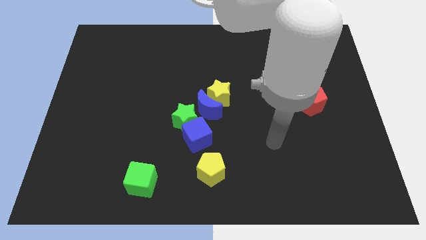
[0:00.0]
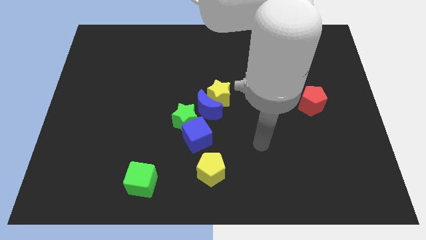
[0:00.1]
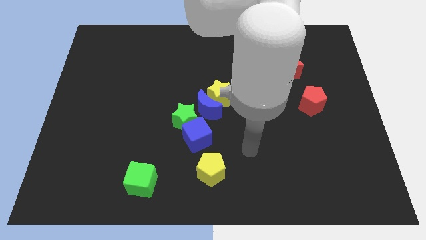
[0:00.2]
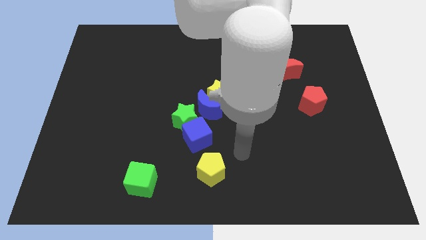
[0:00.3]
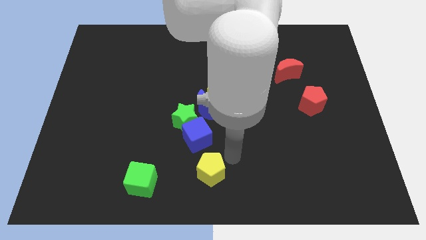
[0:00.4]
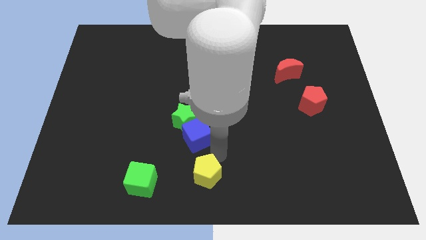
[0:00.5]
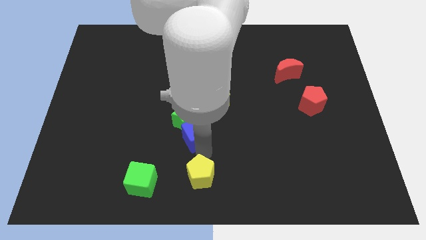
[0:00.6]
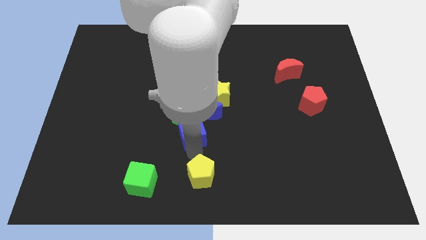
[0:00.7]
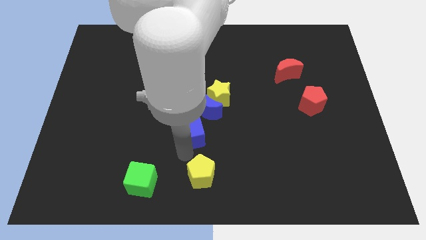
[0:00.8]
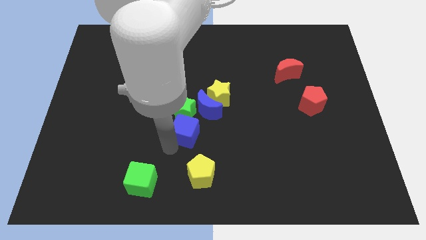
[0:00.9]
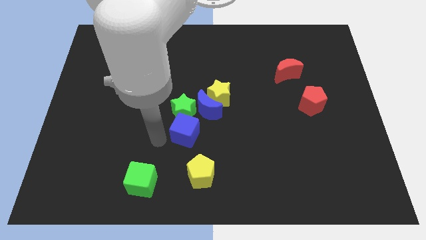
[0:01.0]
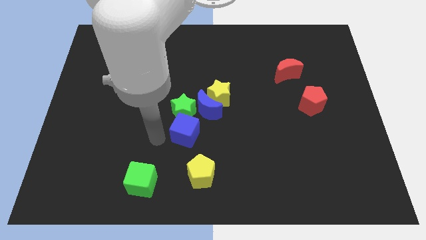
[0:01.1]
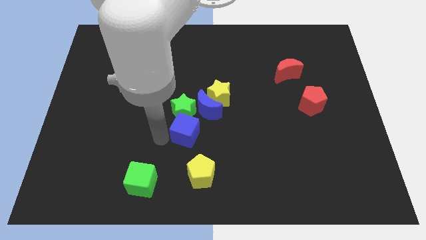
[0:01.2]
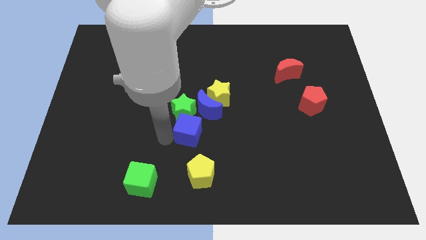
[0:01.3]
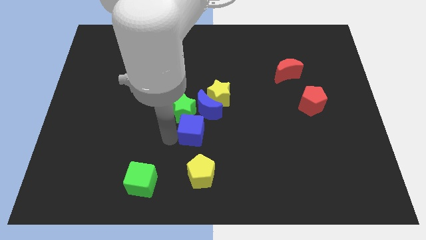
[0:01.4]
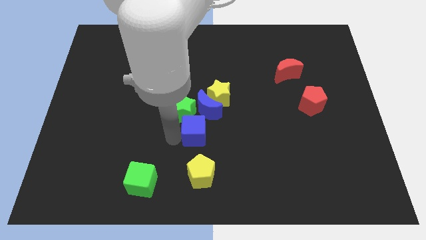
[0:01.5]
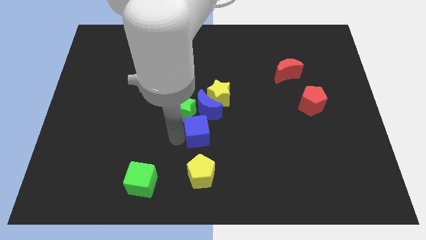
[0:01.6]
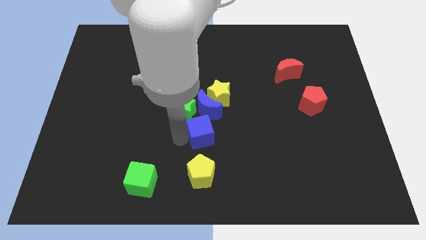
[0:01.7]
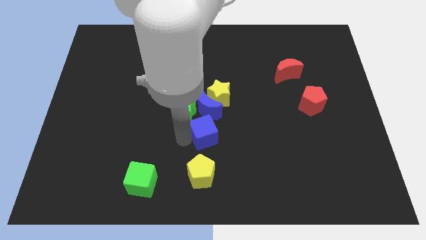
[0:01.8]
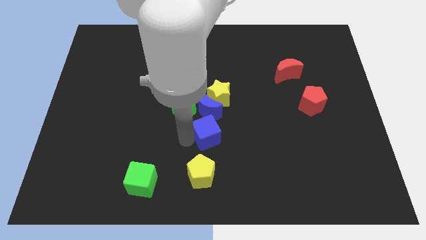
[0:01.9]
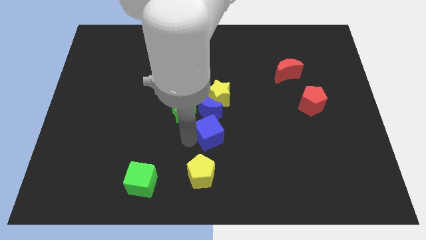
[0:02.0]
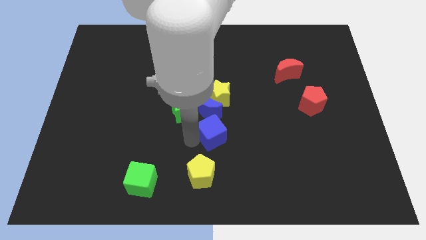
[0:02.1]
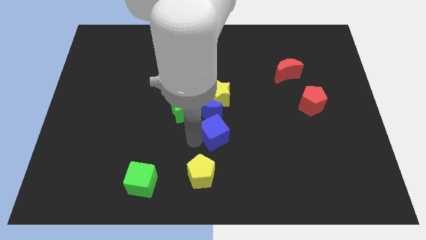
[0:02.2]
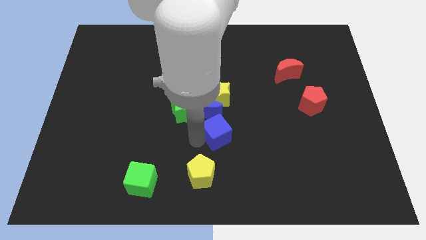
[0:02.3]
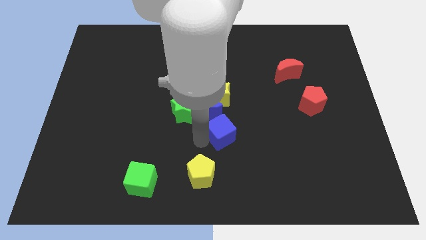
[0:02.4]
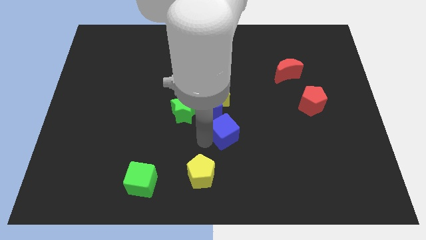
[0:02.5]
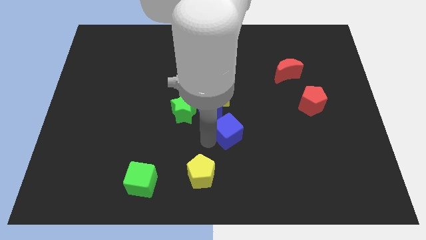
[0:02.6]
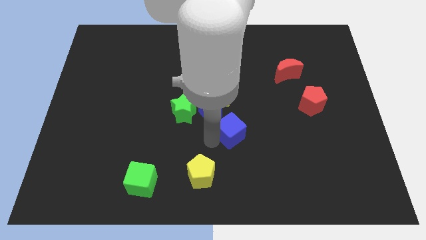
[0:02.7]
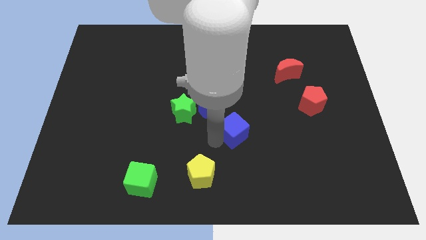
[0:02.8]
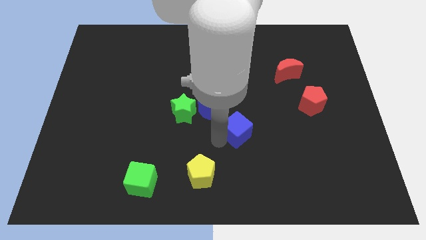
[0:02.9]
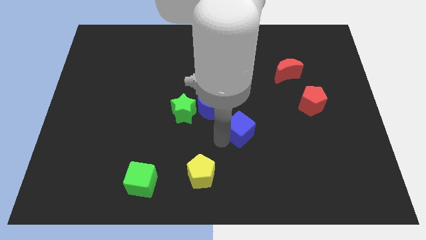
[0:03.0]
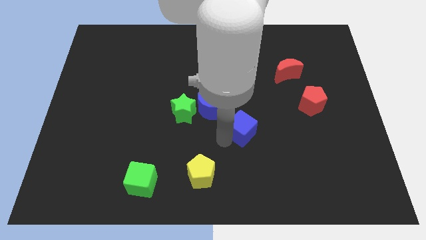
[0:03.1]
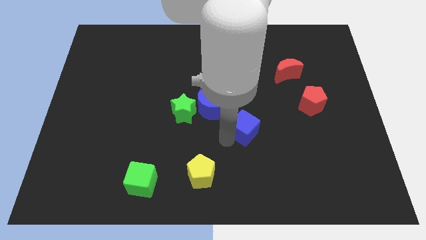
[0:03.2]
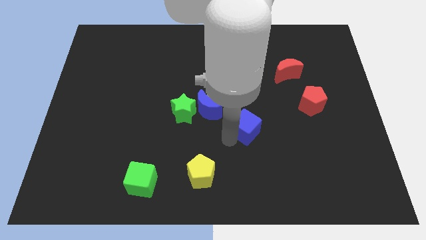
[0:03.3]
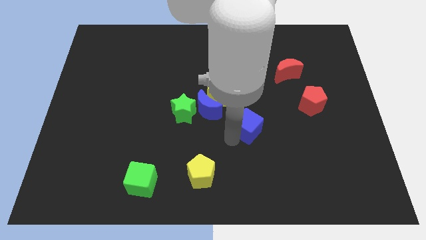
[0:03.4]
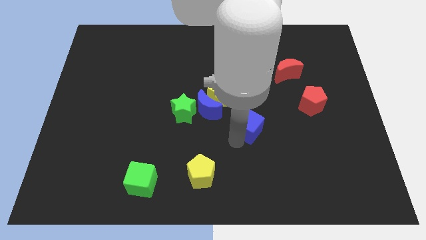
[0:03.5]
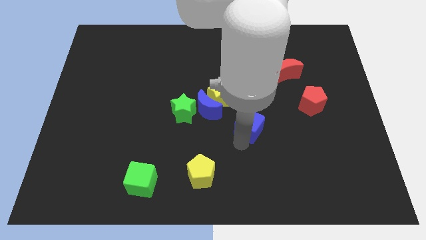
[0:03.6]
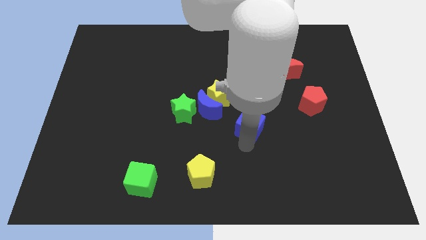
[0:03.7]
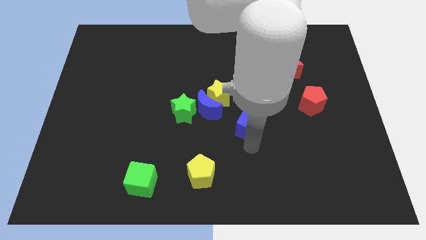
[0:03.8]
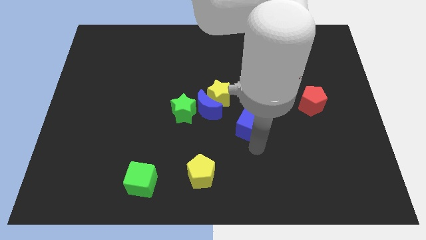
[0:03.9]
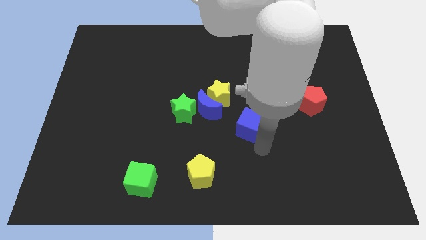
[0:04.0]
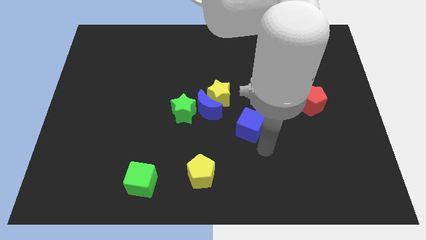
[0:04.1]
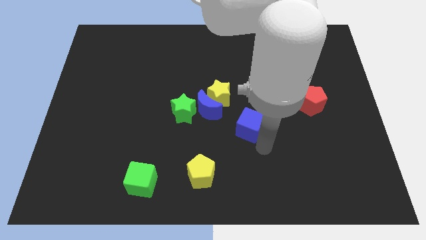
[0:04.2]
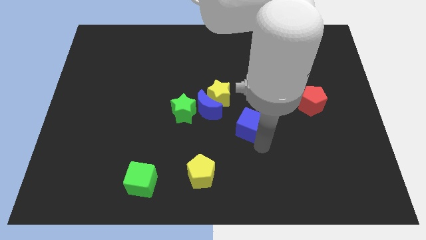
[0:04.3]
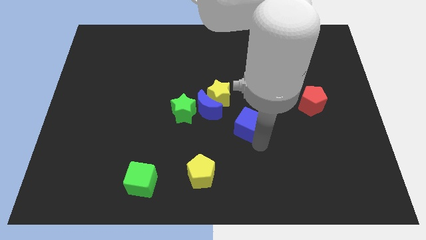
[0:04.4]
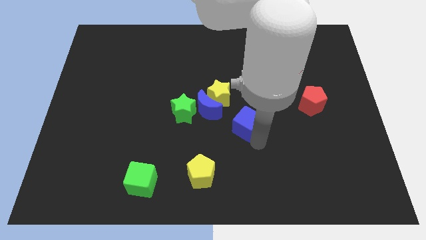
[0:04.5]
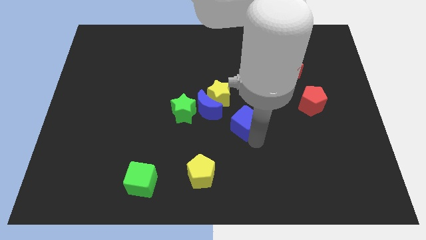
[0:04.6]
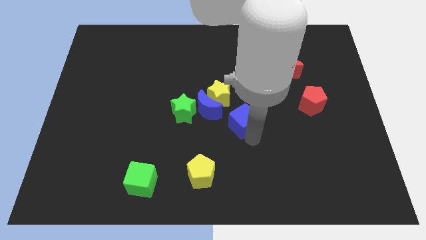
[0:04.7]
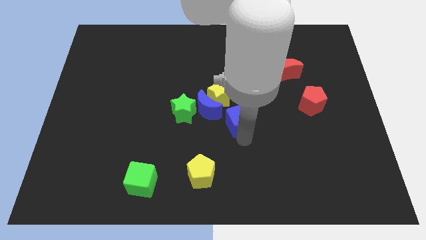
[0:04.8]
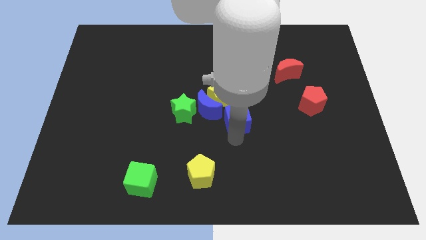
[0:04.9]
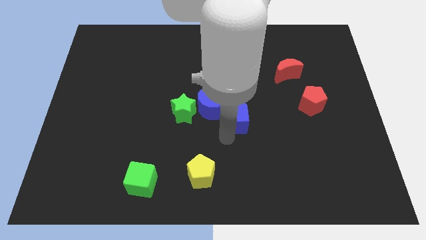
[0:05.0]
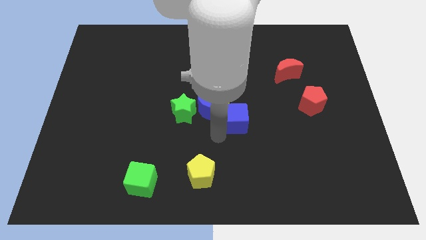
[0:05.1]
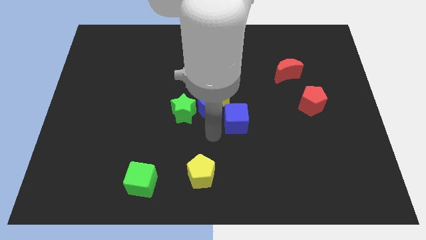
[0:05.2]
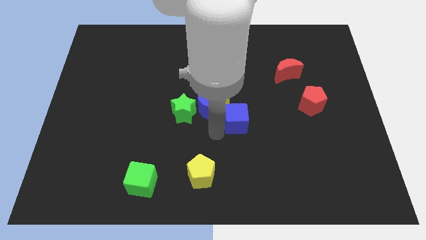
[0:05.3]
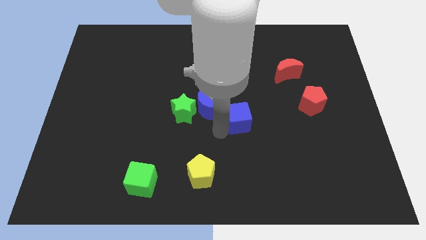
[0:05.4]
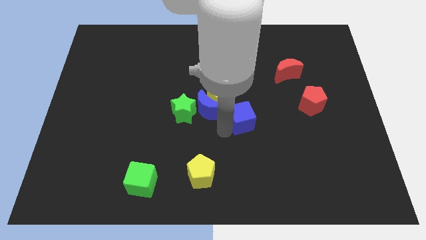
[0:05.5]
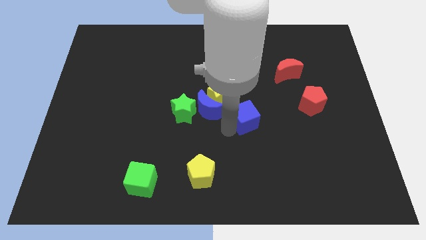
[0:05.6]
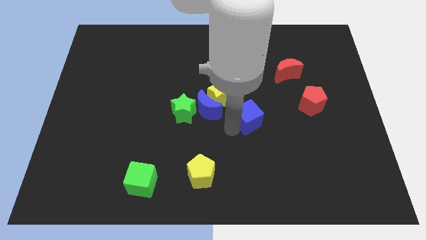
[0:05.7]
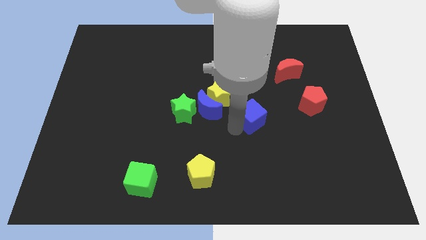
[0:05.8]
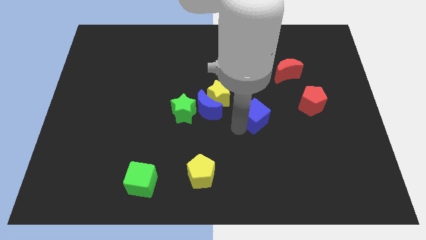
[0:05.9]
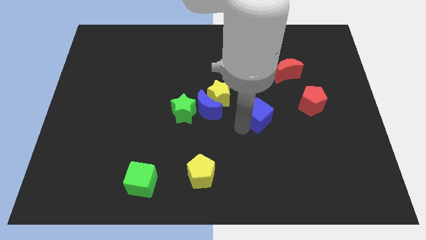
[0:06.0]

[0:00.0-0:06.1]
put the blue cube just left of the red pentagon
